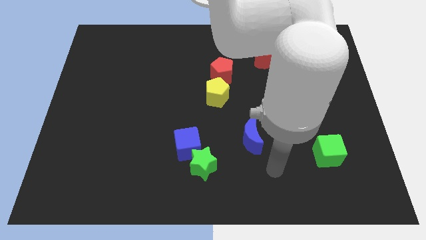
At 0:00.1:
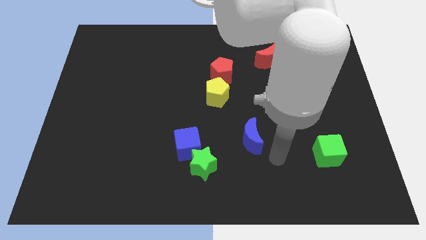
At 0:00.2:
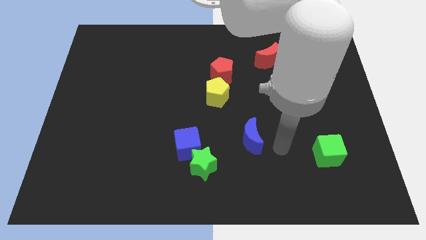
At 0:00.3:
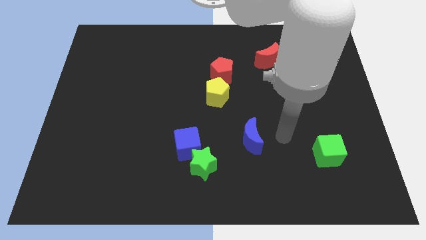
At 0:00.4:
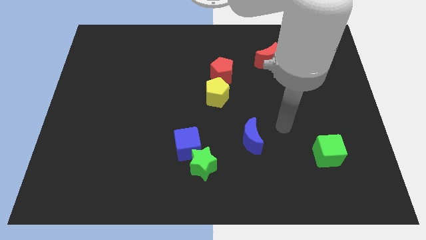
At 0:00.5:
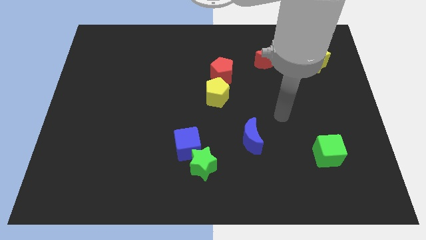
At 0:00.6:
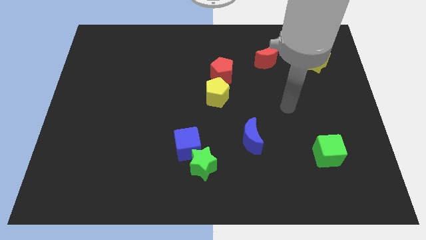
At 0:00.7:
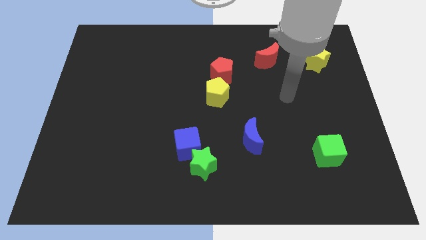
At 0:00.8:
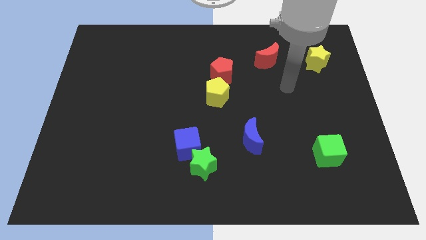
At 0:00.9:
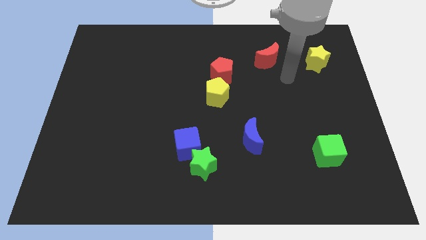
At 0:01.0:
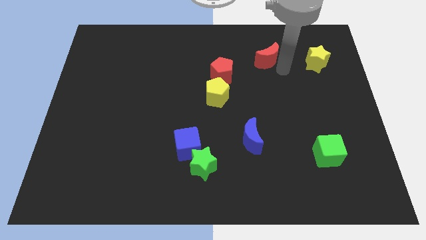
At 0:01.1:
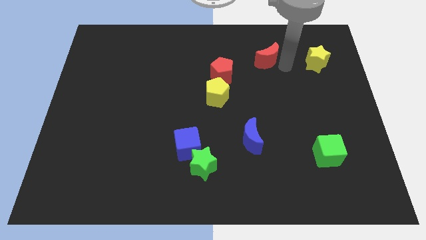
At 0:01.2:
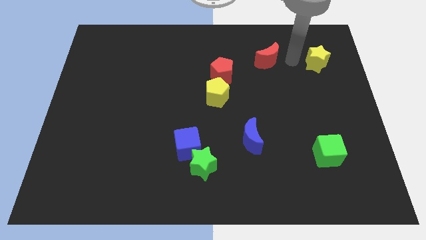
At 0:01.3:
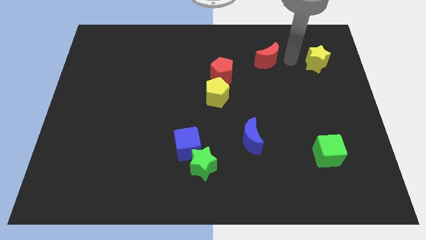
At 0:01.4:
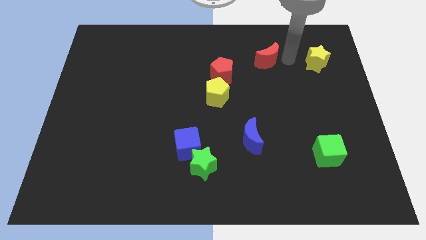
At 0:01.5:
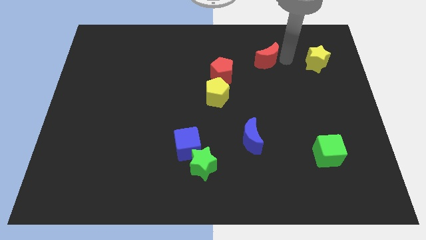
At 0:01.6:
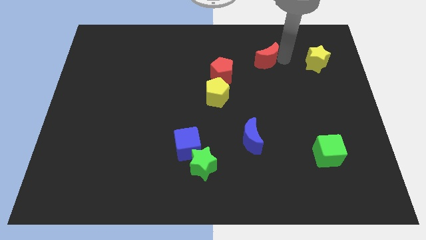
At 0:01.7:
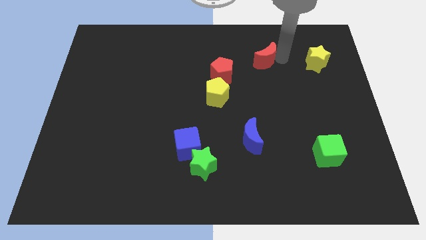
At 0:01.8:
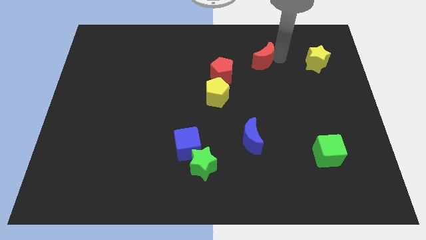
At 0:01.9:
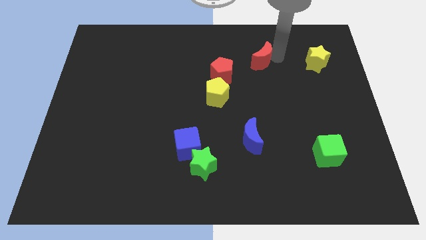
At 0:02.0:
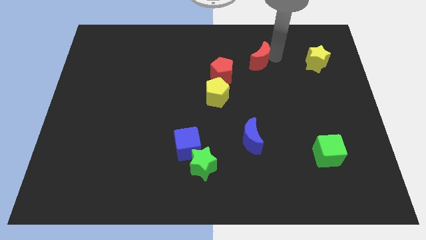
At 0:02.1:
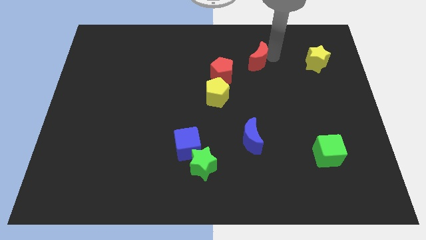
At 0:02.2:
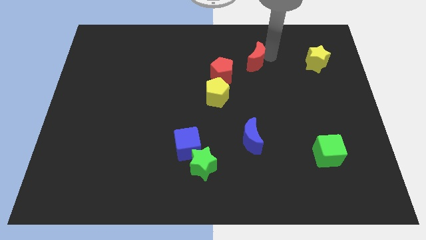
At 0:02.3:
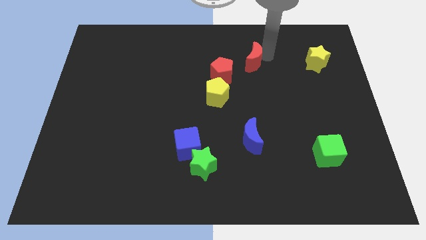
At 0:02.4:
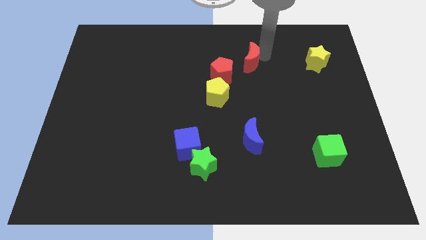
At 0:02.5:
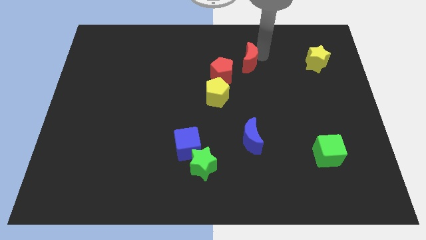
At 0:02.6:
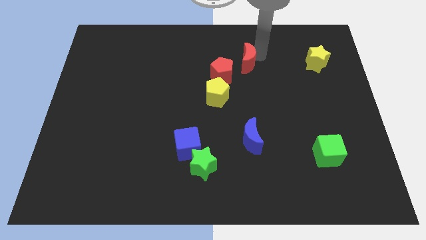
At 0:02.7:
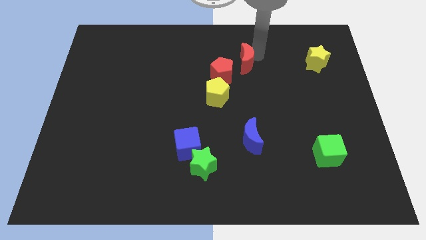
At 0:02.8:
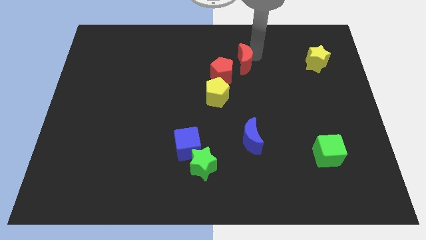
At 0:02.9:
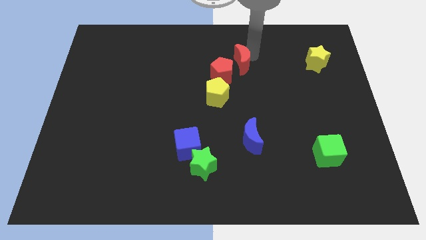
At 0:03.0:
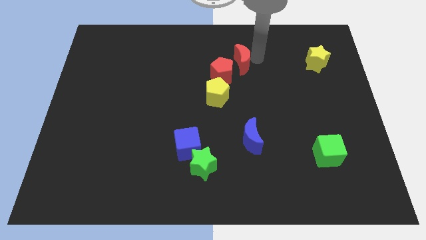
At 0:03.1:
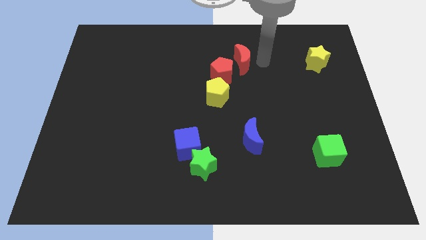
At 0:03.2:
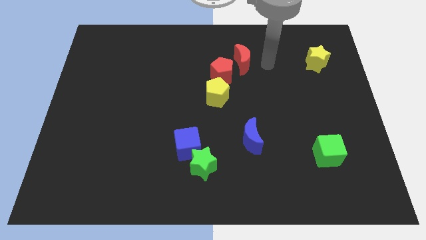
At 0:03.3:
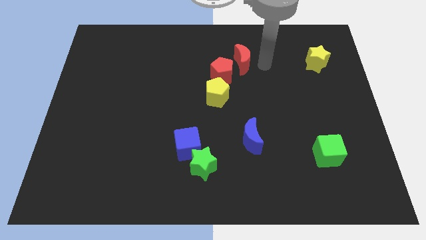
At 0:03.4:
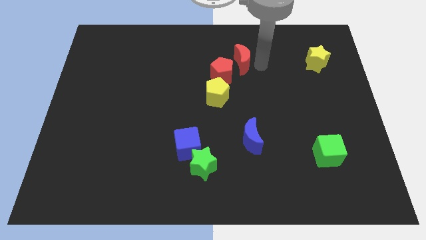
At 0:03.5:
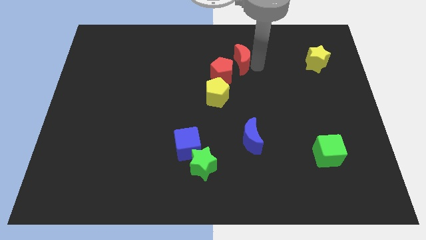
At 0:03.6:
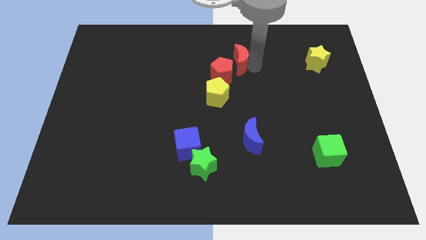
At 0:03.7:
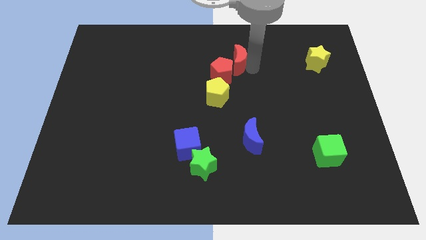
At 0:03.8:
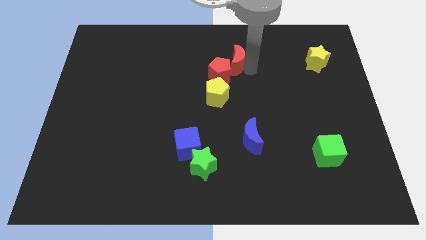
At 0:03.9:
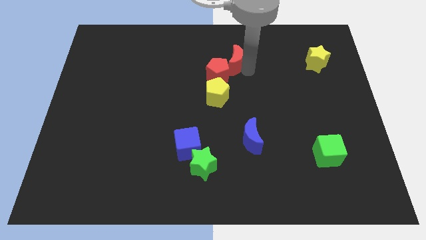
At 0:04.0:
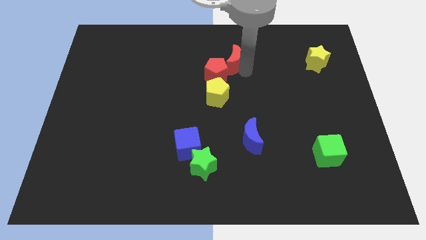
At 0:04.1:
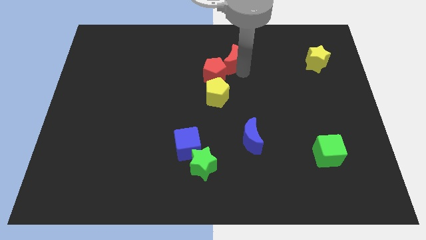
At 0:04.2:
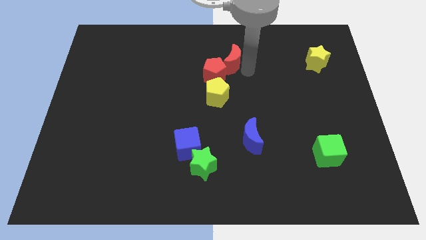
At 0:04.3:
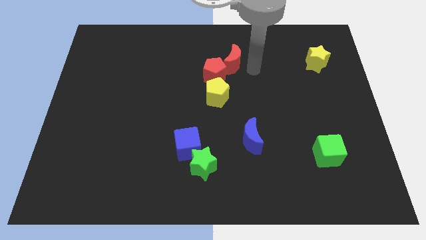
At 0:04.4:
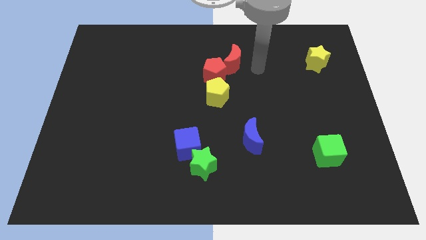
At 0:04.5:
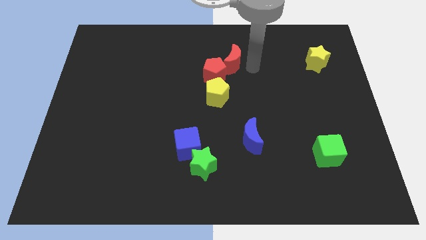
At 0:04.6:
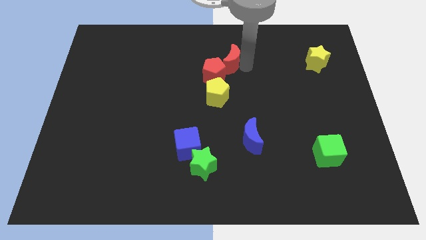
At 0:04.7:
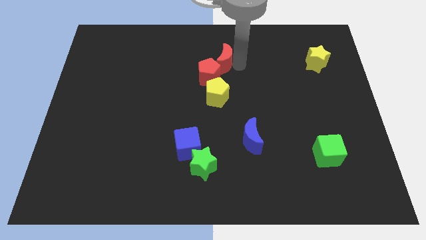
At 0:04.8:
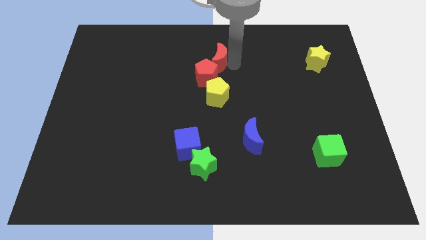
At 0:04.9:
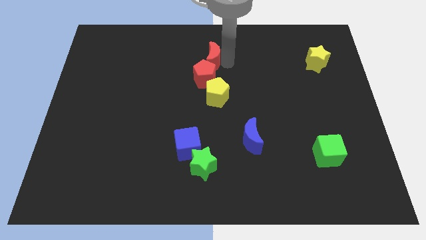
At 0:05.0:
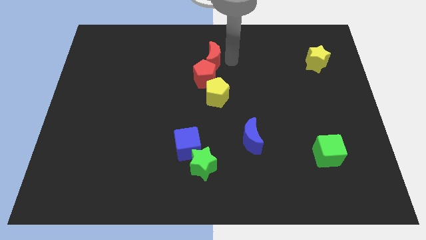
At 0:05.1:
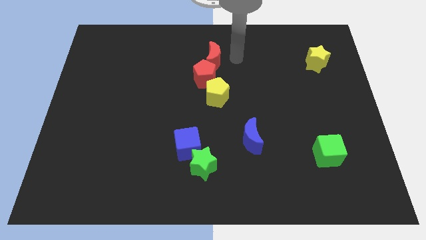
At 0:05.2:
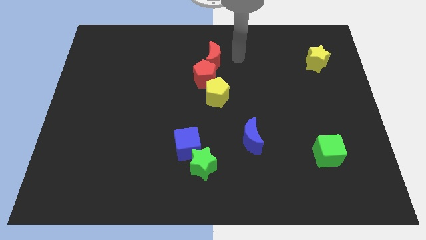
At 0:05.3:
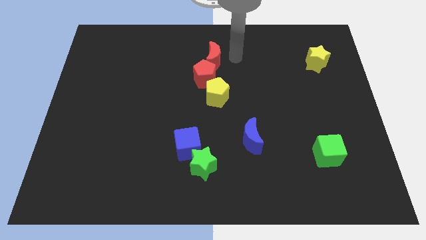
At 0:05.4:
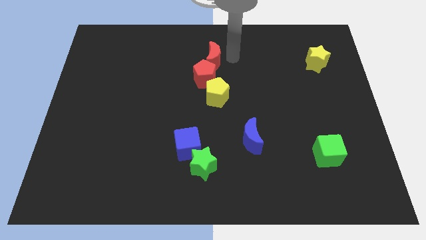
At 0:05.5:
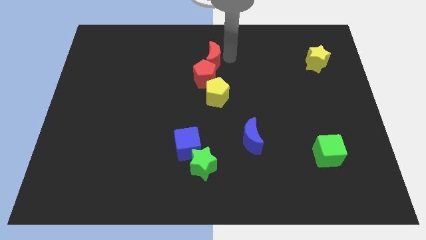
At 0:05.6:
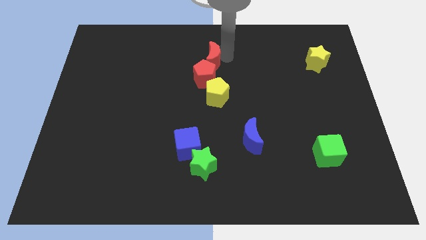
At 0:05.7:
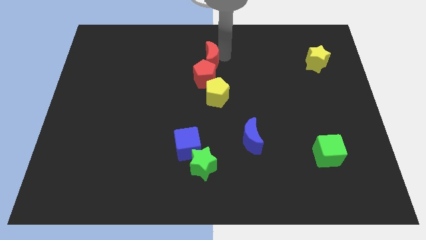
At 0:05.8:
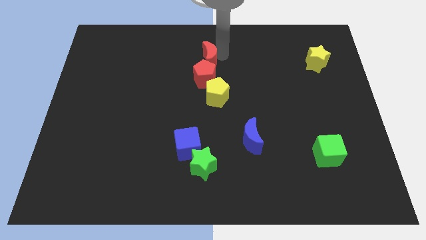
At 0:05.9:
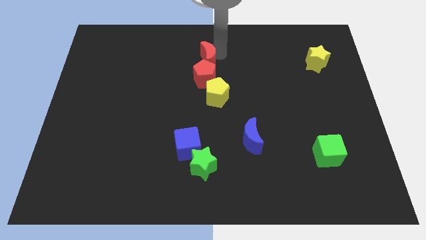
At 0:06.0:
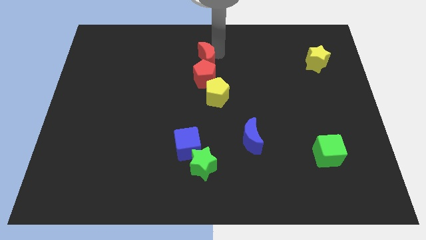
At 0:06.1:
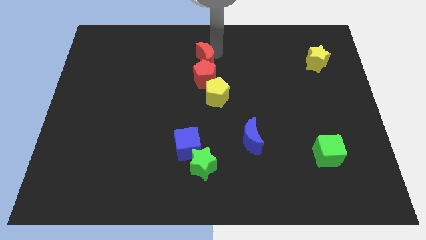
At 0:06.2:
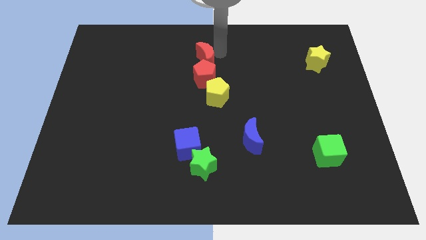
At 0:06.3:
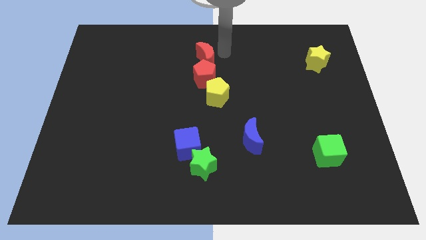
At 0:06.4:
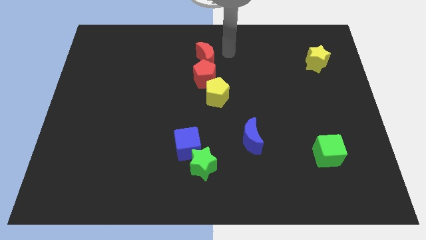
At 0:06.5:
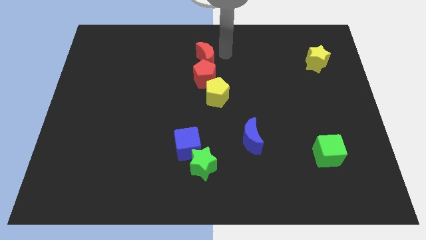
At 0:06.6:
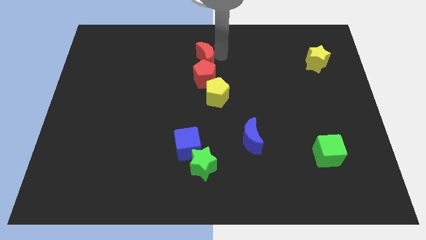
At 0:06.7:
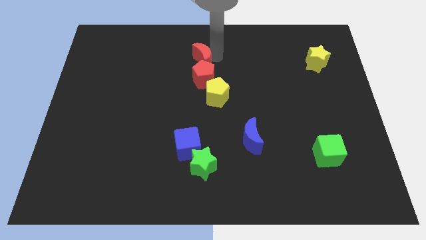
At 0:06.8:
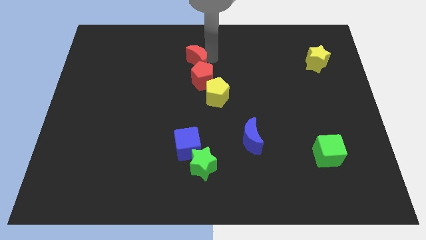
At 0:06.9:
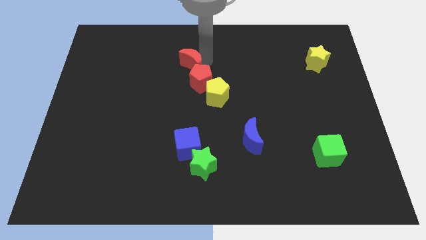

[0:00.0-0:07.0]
push the red moon to the left

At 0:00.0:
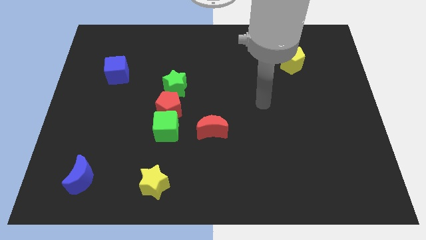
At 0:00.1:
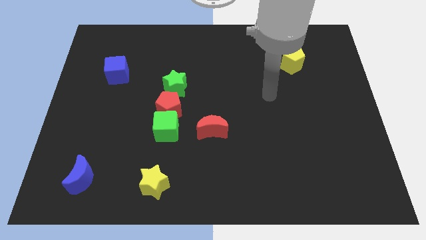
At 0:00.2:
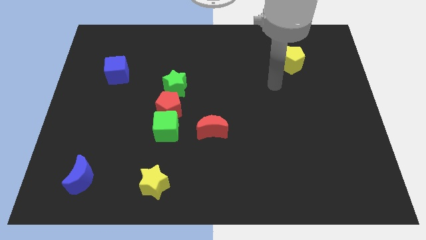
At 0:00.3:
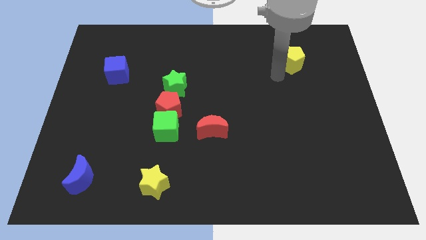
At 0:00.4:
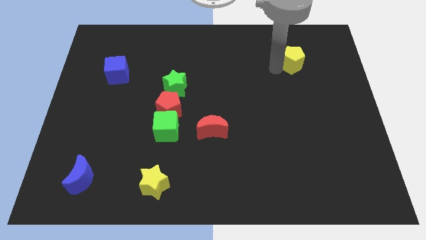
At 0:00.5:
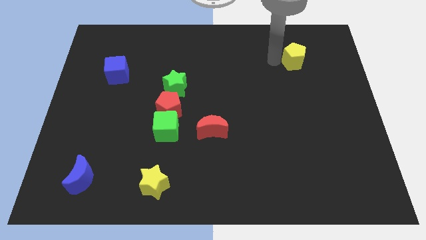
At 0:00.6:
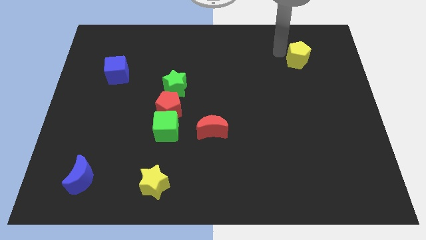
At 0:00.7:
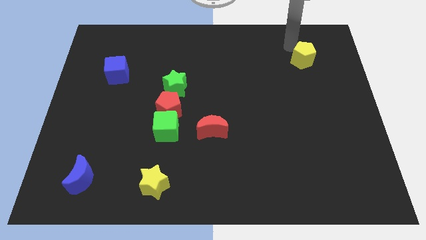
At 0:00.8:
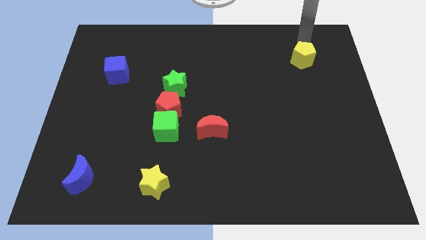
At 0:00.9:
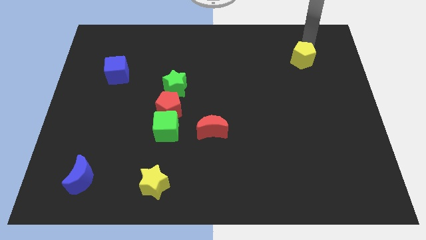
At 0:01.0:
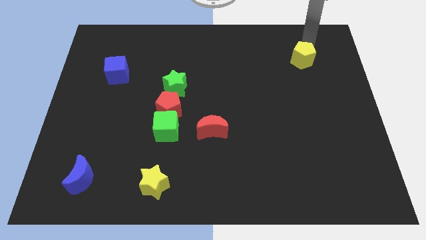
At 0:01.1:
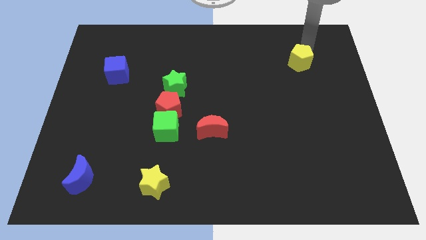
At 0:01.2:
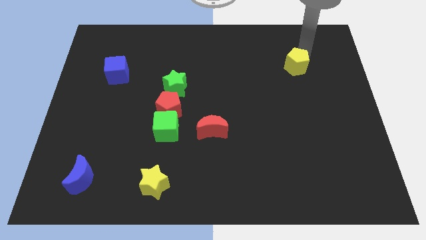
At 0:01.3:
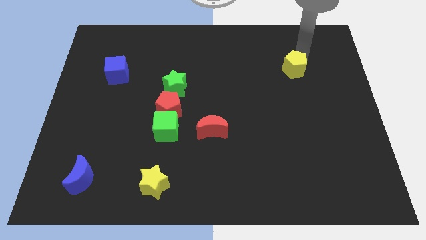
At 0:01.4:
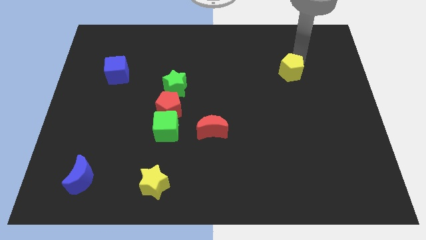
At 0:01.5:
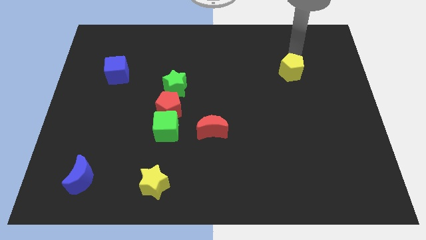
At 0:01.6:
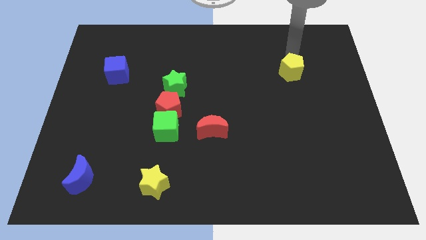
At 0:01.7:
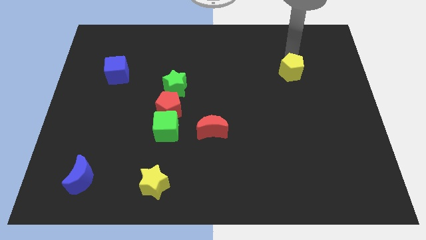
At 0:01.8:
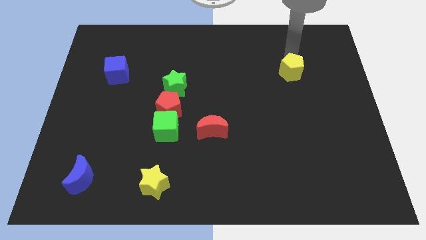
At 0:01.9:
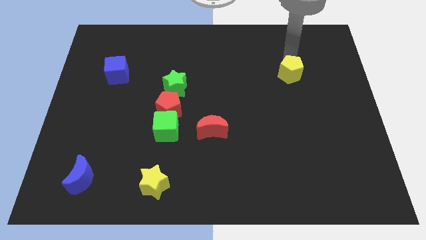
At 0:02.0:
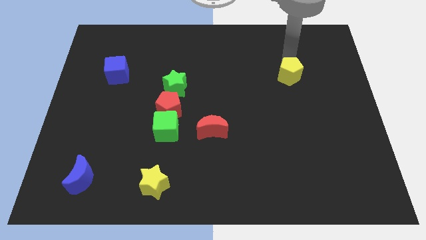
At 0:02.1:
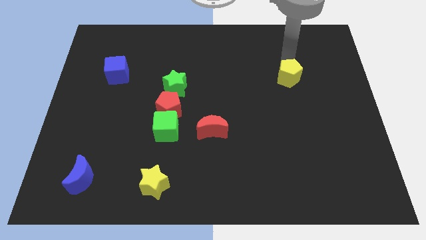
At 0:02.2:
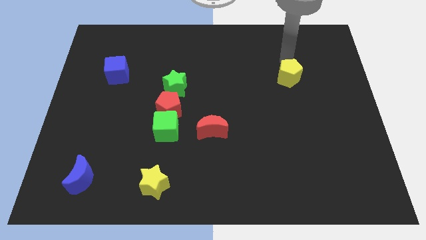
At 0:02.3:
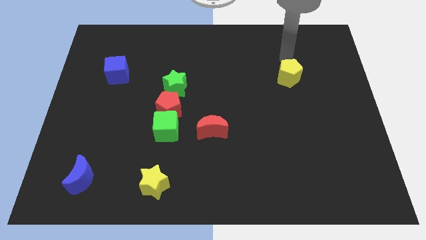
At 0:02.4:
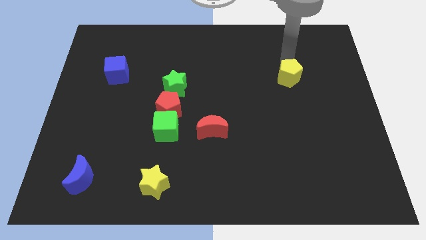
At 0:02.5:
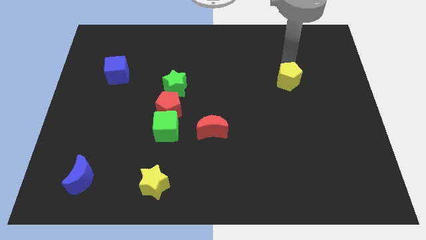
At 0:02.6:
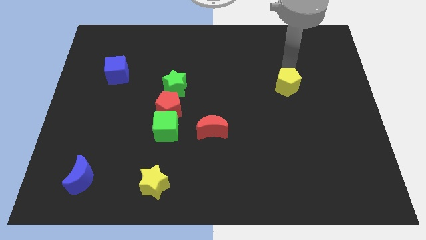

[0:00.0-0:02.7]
slightly slide the yellow pentagon down
